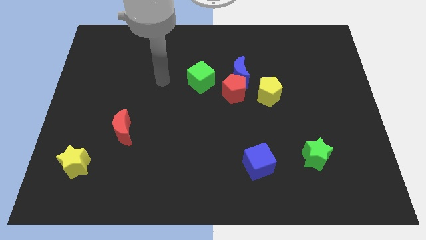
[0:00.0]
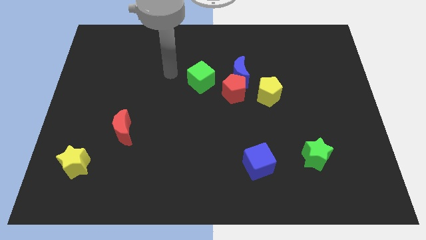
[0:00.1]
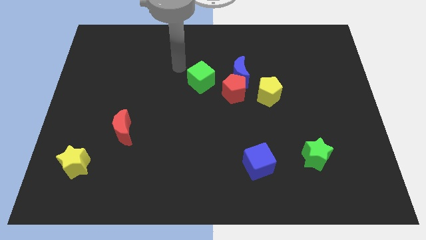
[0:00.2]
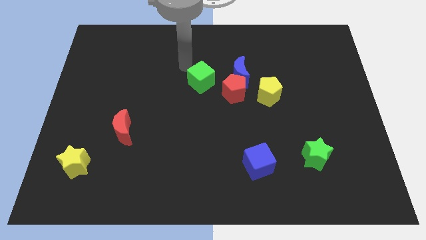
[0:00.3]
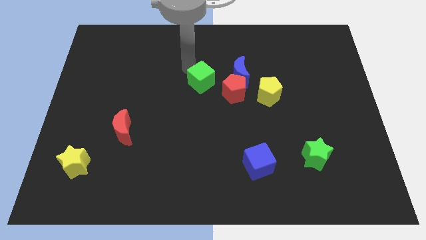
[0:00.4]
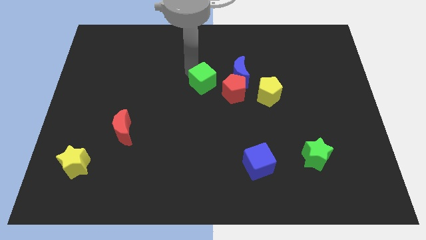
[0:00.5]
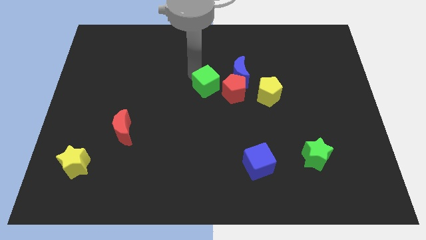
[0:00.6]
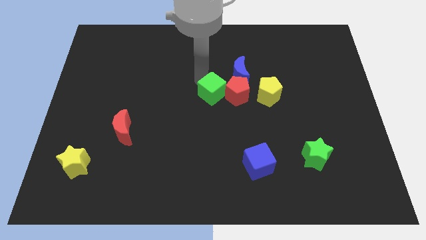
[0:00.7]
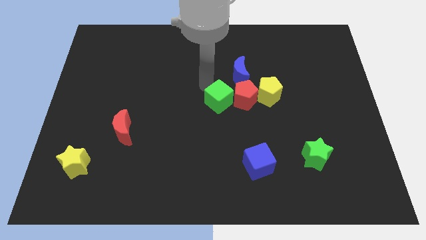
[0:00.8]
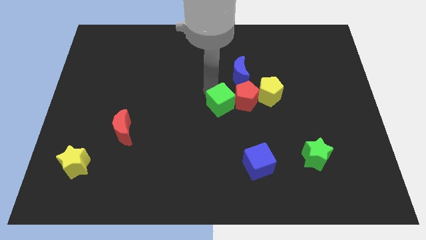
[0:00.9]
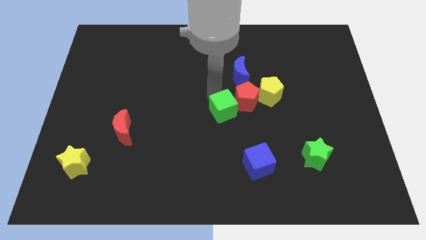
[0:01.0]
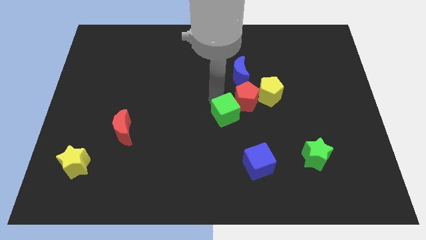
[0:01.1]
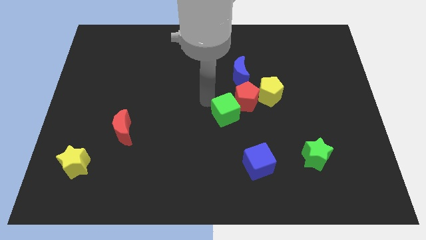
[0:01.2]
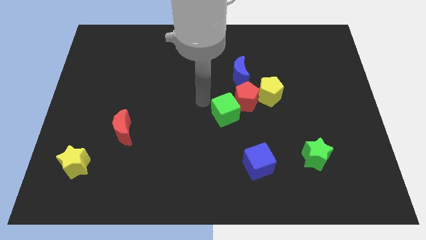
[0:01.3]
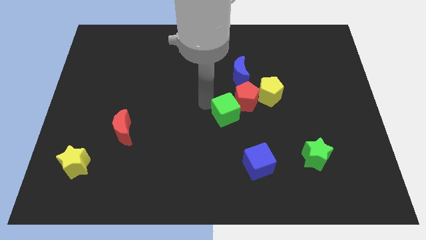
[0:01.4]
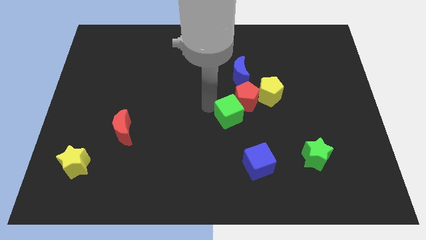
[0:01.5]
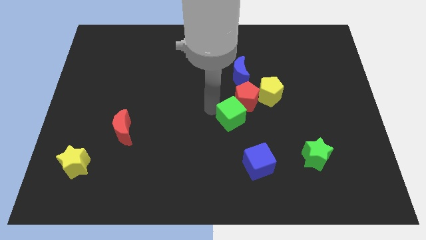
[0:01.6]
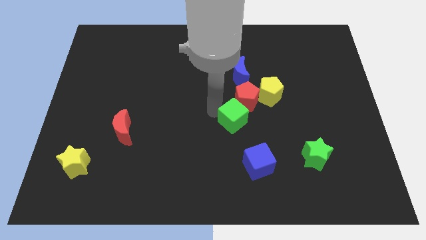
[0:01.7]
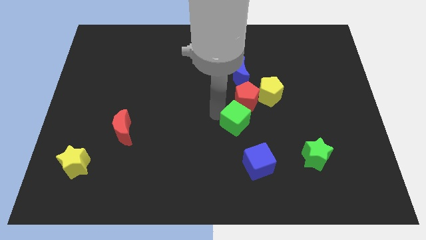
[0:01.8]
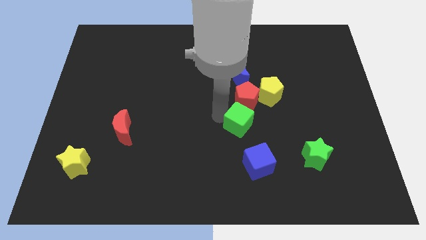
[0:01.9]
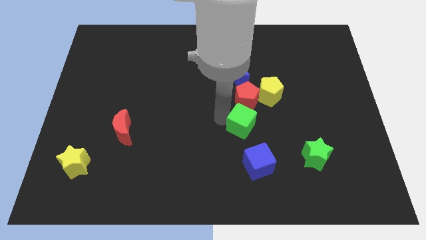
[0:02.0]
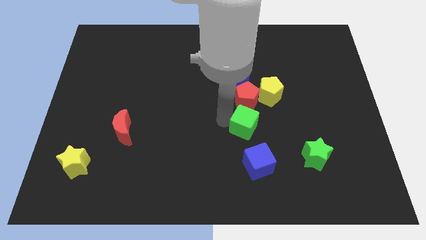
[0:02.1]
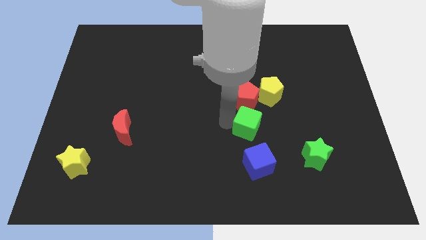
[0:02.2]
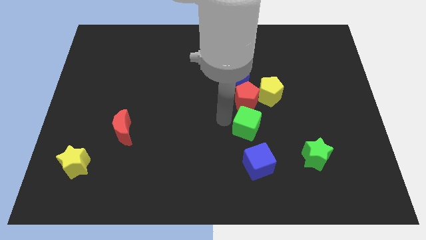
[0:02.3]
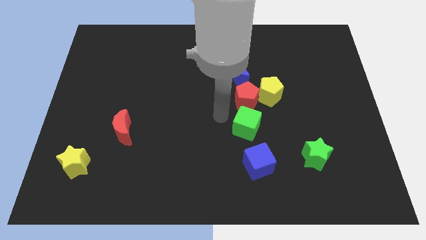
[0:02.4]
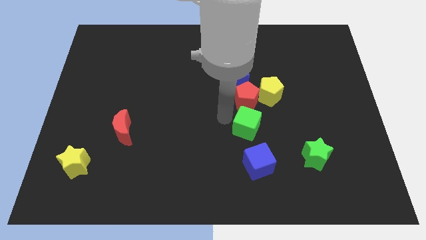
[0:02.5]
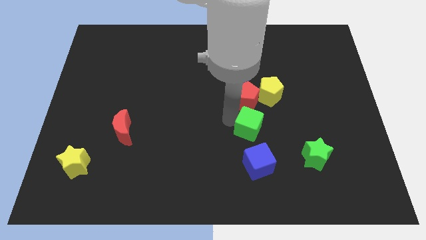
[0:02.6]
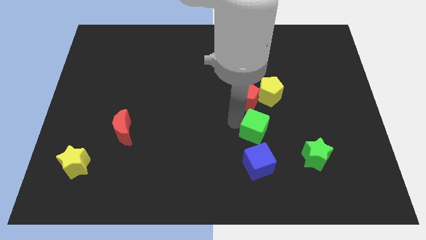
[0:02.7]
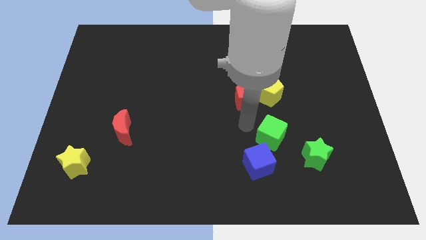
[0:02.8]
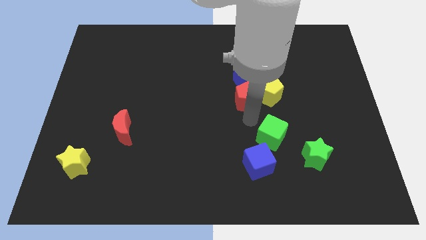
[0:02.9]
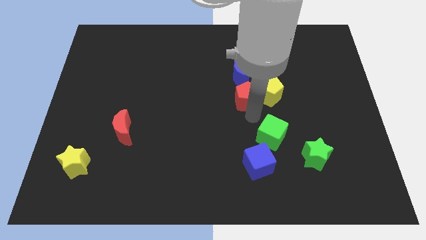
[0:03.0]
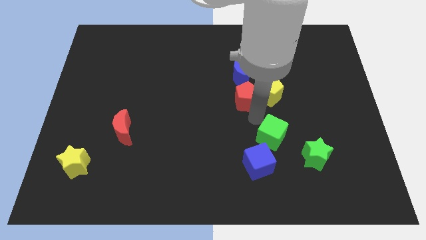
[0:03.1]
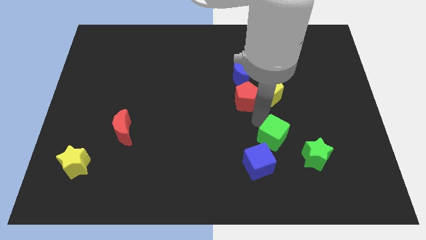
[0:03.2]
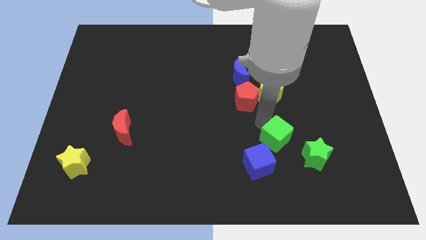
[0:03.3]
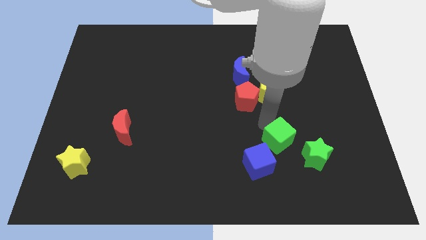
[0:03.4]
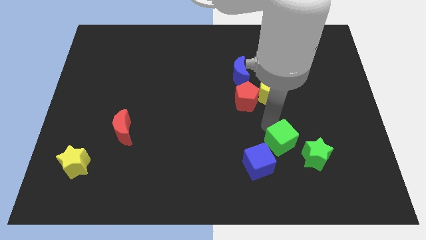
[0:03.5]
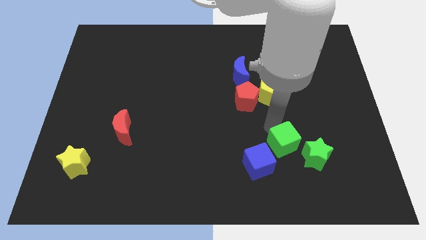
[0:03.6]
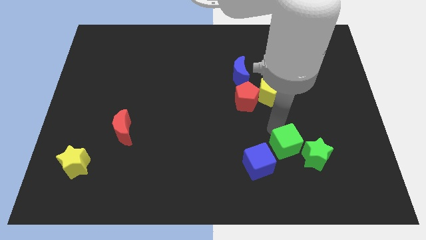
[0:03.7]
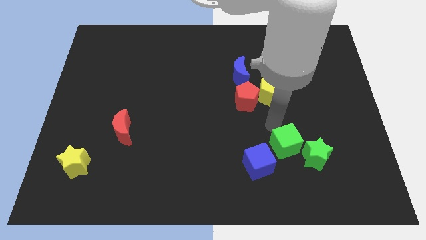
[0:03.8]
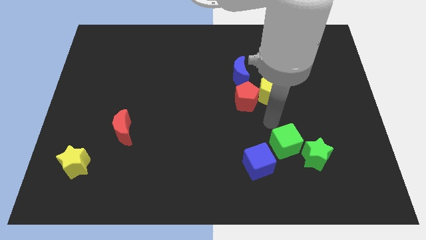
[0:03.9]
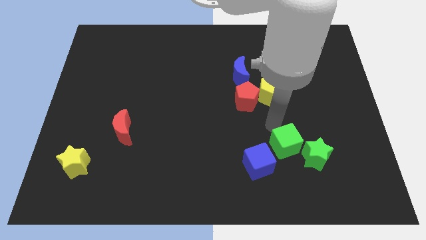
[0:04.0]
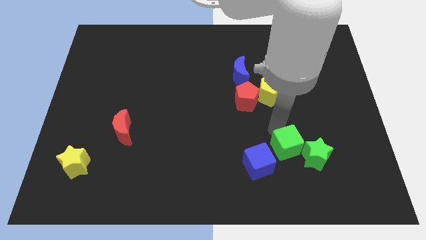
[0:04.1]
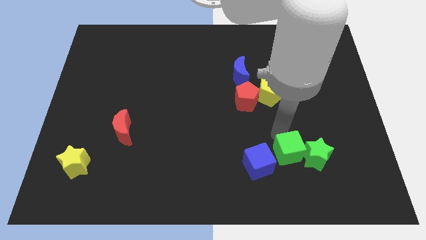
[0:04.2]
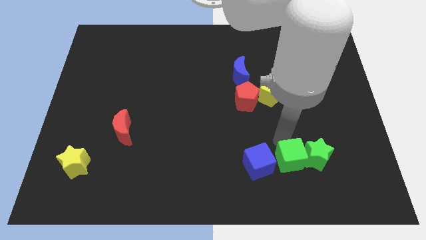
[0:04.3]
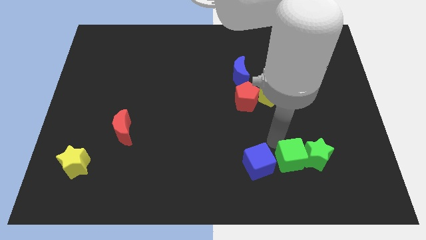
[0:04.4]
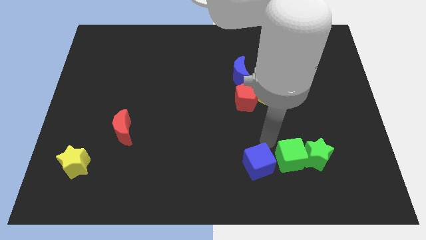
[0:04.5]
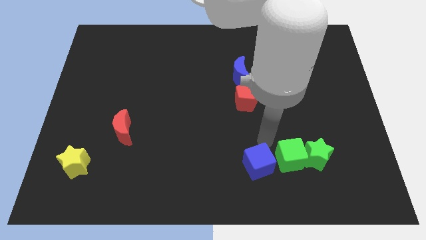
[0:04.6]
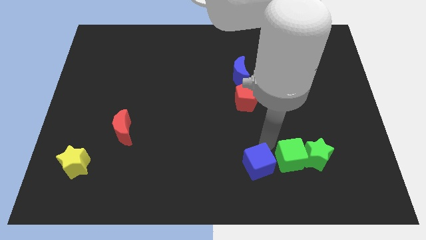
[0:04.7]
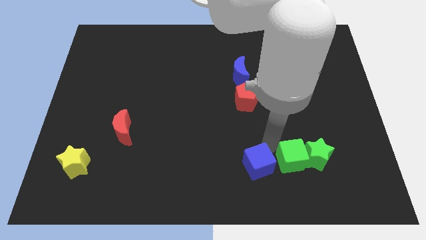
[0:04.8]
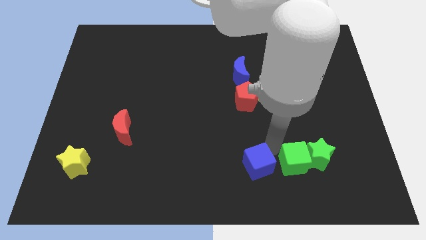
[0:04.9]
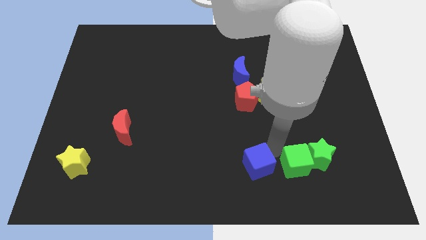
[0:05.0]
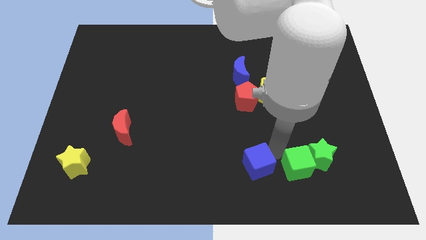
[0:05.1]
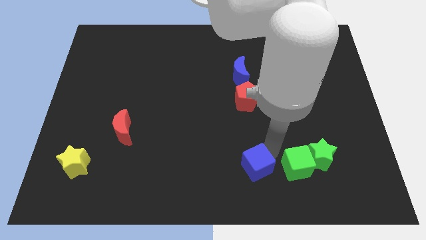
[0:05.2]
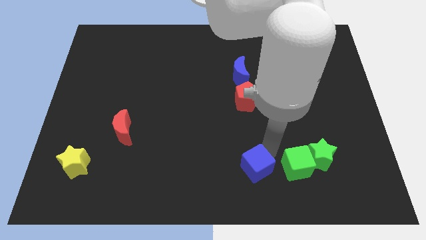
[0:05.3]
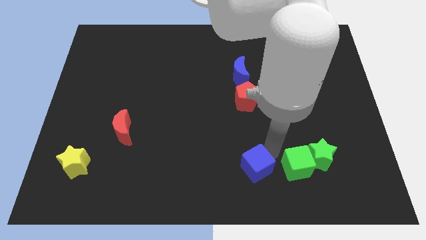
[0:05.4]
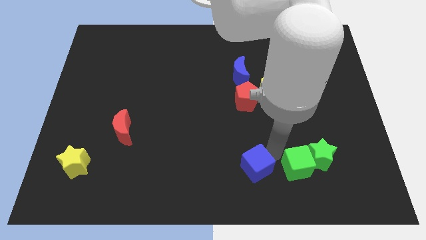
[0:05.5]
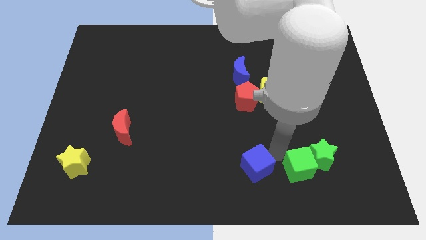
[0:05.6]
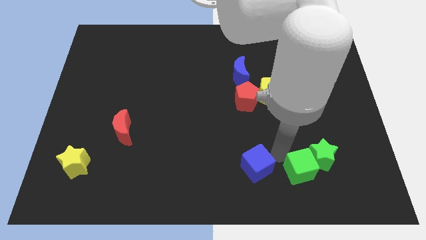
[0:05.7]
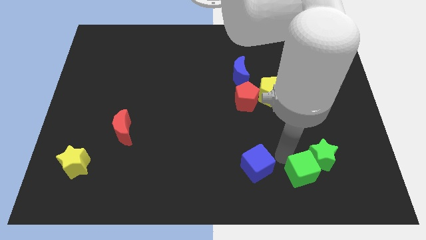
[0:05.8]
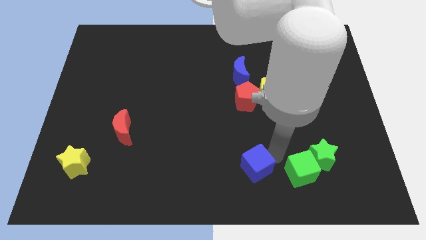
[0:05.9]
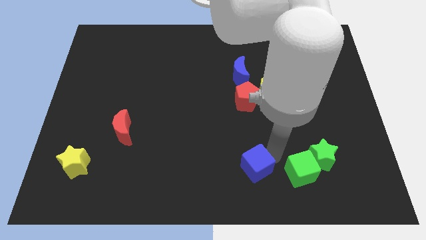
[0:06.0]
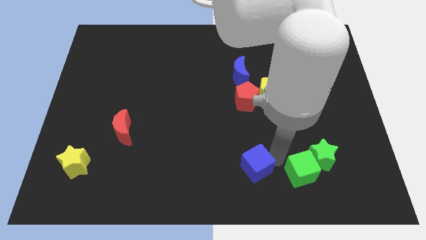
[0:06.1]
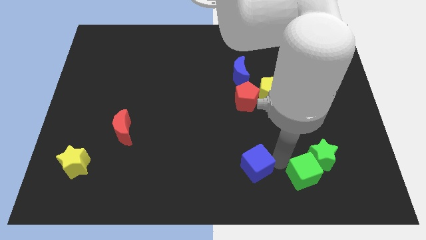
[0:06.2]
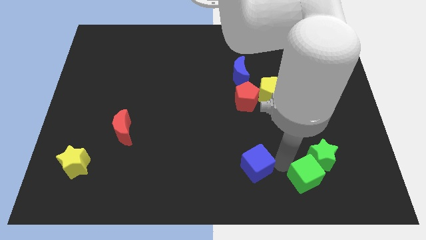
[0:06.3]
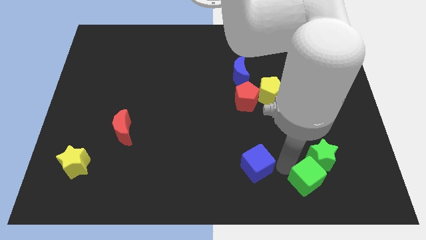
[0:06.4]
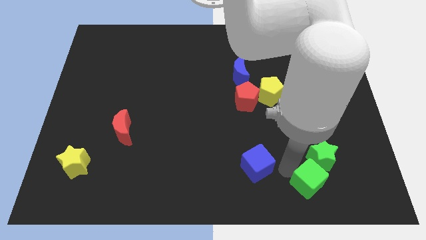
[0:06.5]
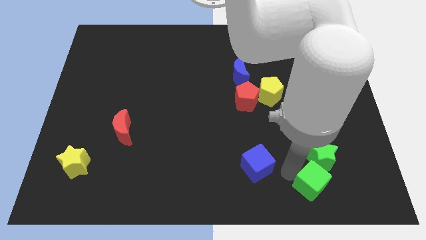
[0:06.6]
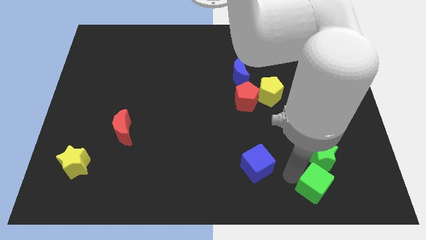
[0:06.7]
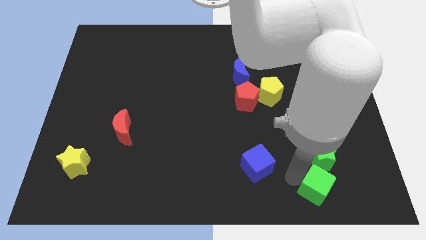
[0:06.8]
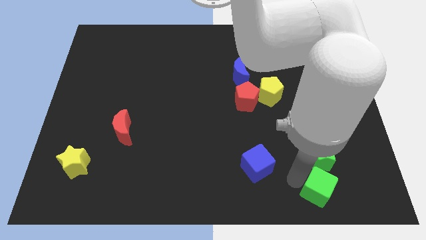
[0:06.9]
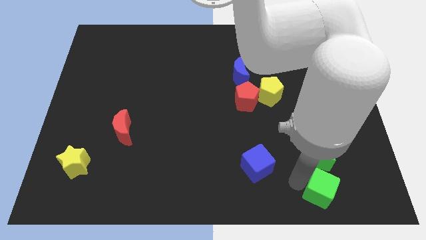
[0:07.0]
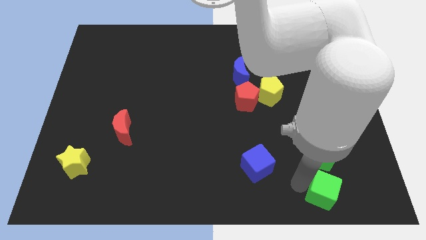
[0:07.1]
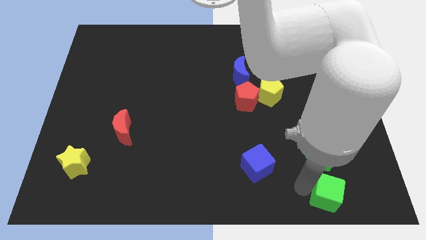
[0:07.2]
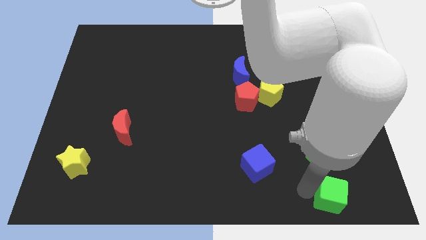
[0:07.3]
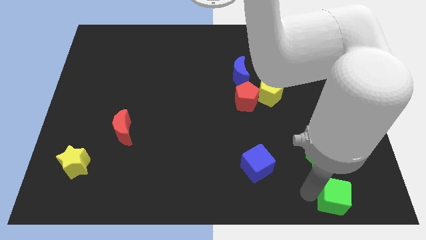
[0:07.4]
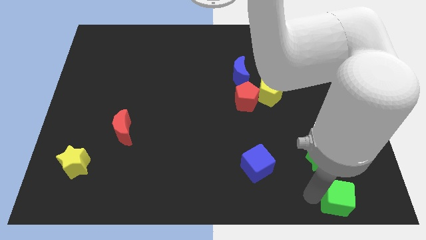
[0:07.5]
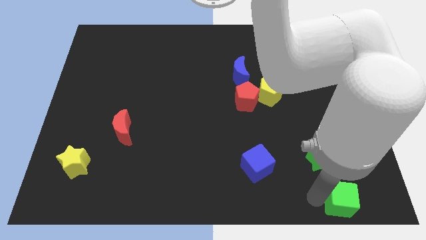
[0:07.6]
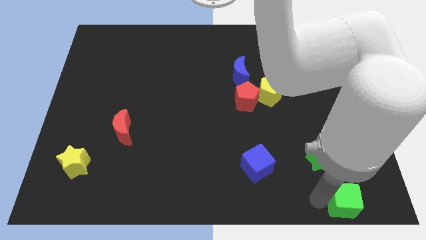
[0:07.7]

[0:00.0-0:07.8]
slide the green cube to the bottom right of the board
